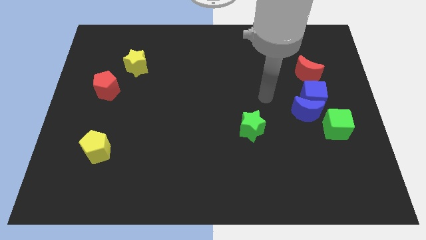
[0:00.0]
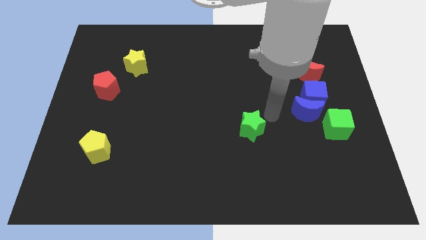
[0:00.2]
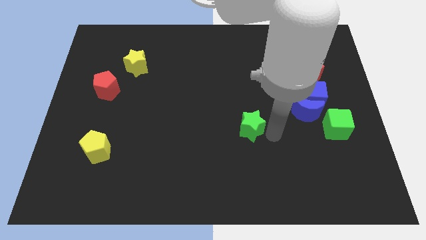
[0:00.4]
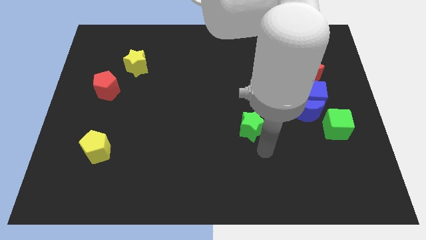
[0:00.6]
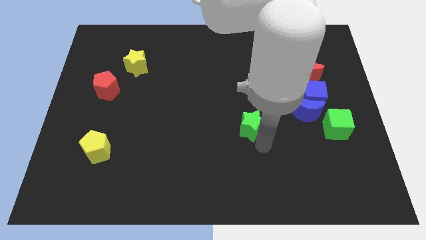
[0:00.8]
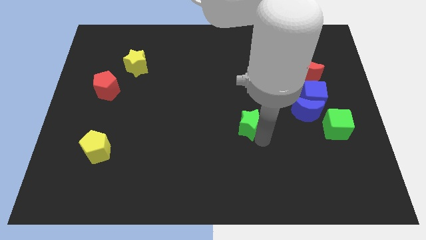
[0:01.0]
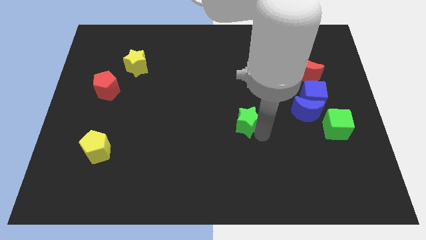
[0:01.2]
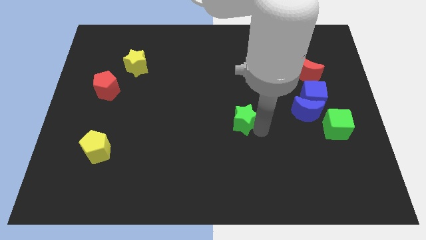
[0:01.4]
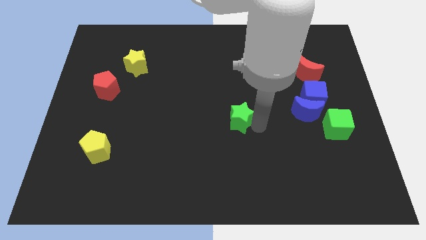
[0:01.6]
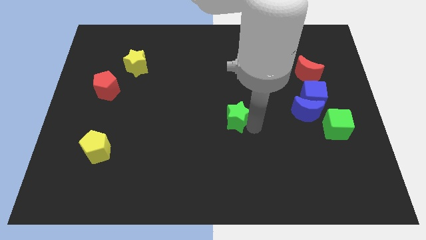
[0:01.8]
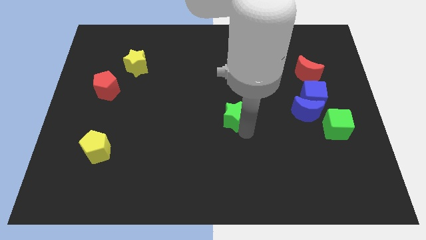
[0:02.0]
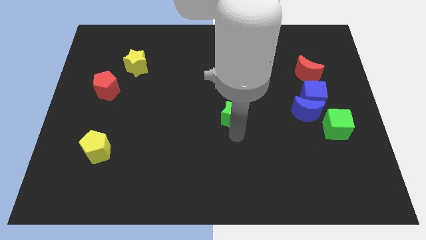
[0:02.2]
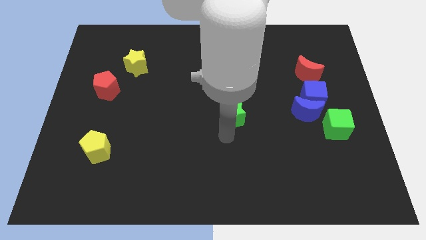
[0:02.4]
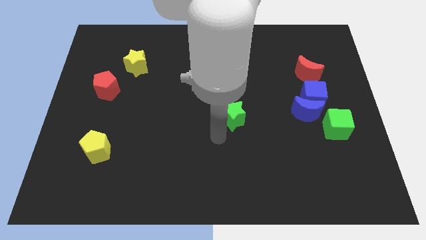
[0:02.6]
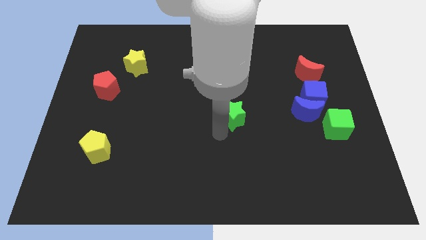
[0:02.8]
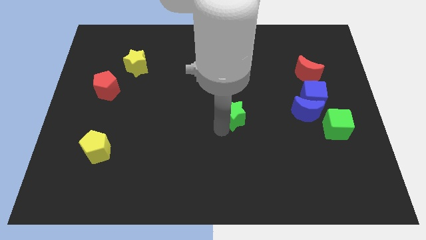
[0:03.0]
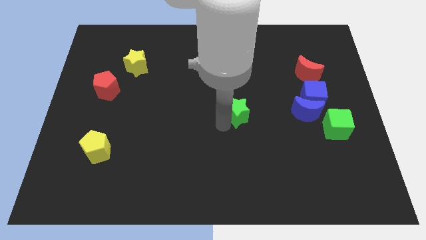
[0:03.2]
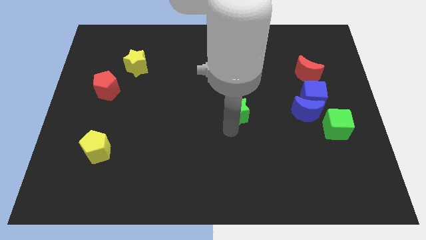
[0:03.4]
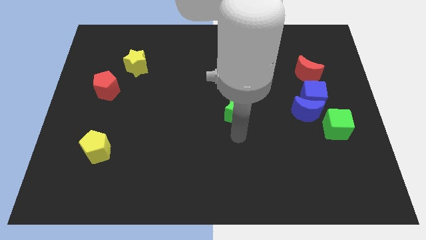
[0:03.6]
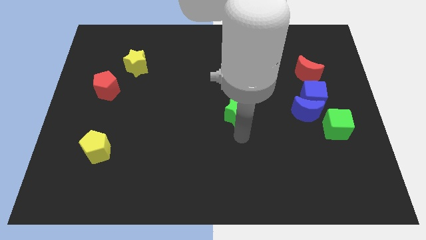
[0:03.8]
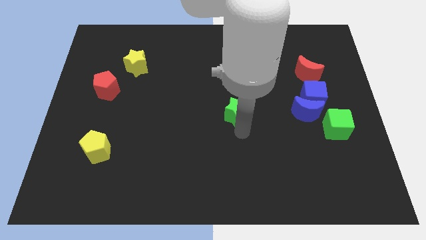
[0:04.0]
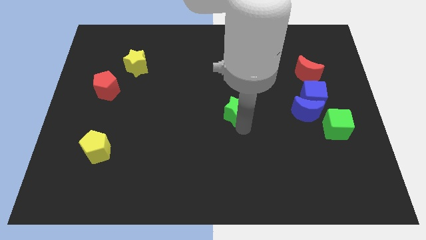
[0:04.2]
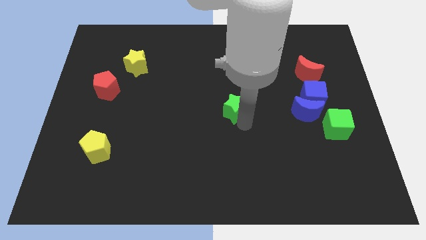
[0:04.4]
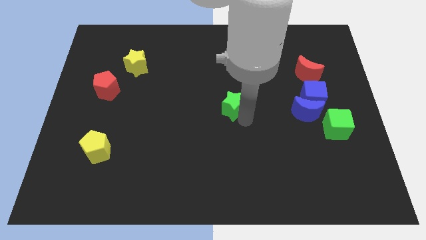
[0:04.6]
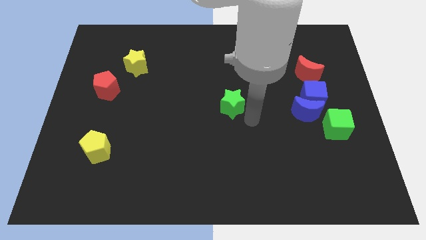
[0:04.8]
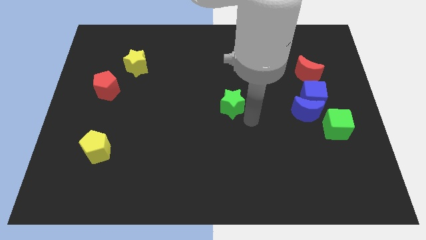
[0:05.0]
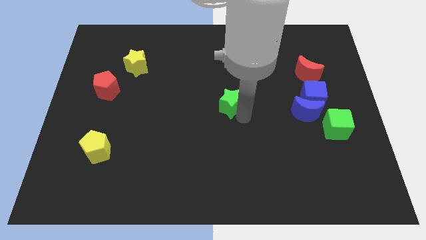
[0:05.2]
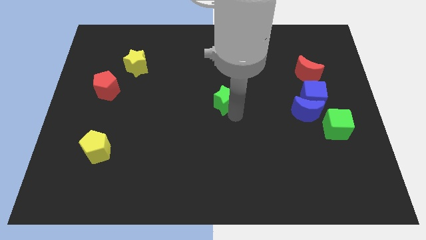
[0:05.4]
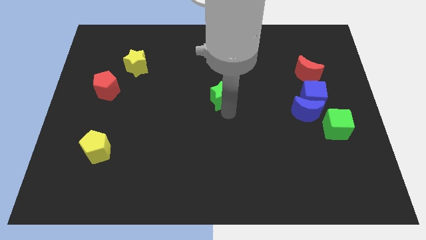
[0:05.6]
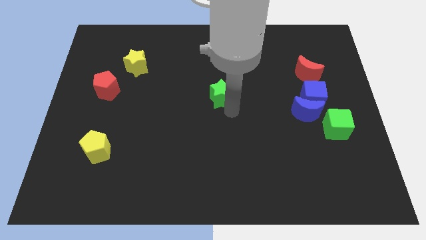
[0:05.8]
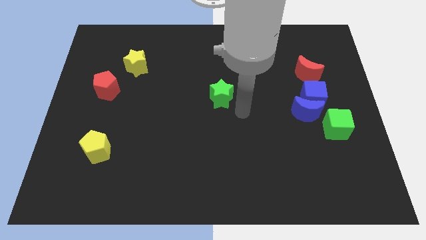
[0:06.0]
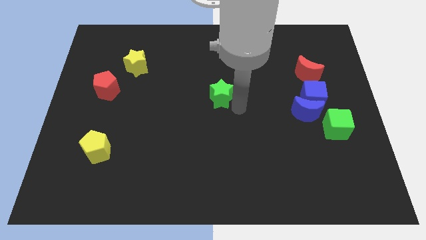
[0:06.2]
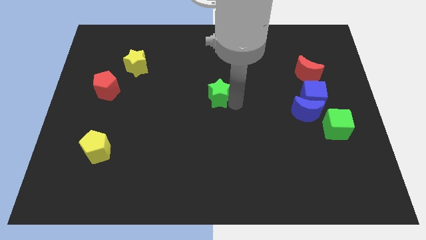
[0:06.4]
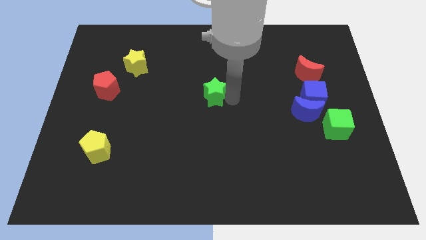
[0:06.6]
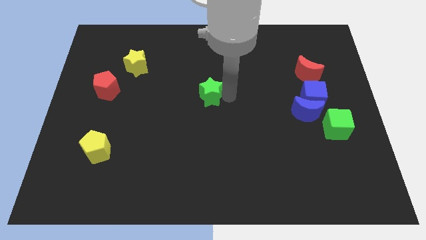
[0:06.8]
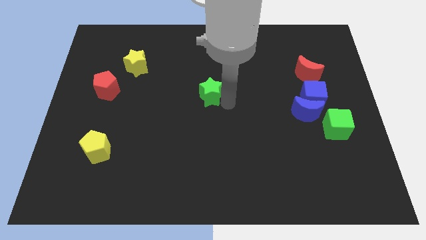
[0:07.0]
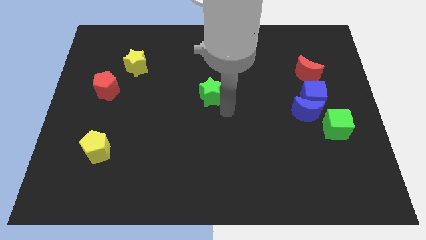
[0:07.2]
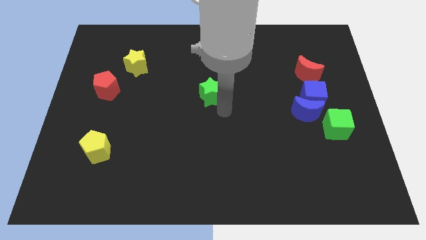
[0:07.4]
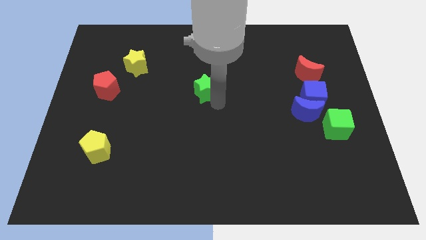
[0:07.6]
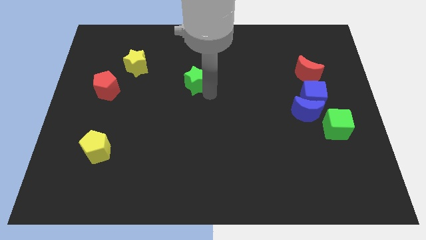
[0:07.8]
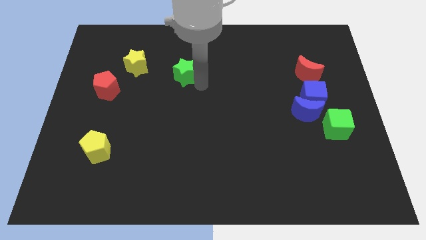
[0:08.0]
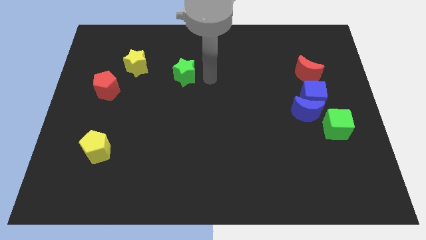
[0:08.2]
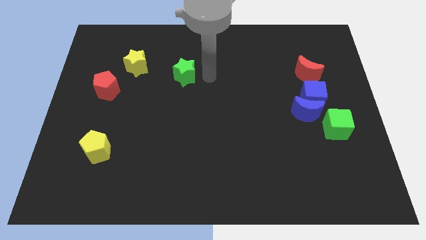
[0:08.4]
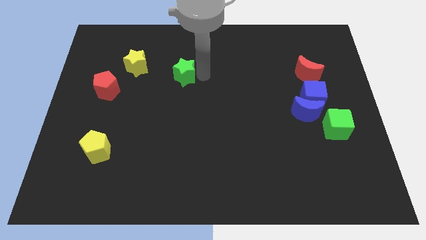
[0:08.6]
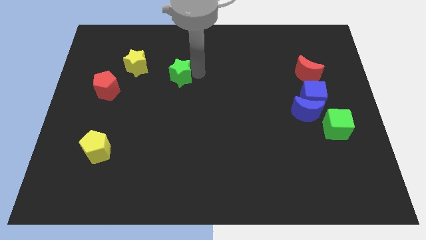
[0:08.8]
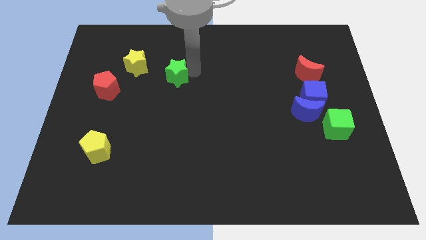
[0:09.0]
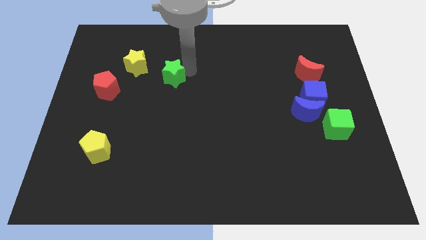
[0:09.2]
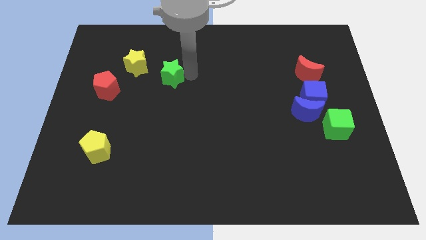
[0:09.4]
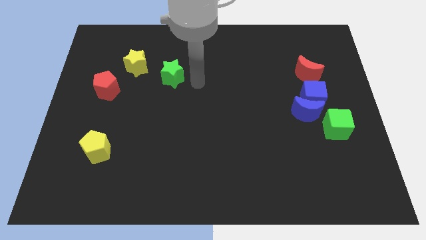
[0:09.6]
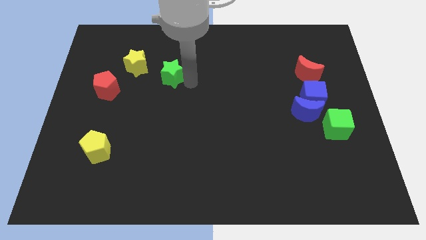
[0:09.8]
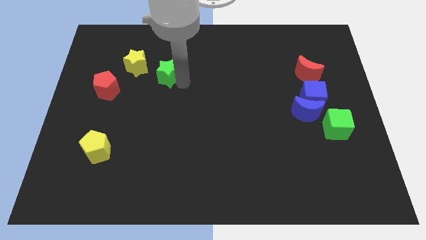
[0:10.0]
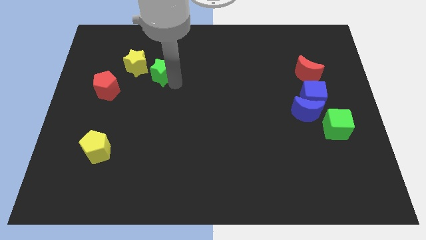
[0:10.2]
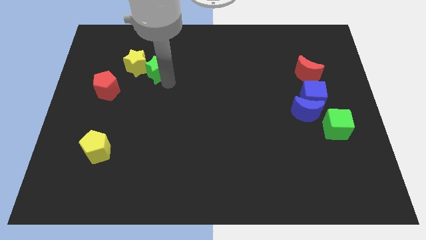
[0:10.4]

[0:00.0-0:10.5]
put the green star close to the yellow star

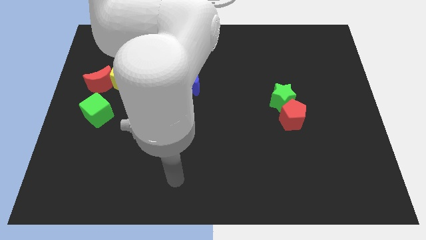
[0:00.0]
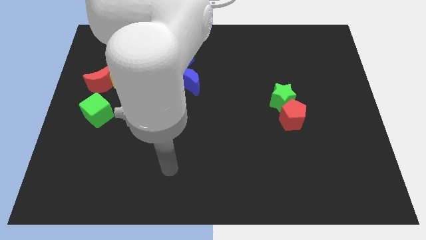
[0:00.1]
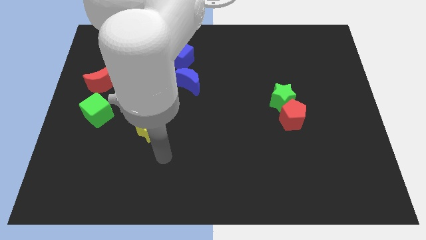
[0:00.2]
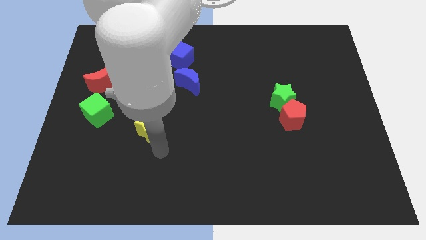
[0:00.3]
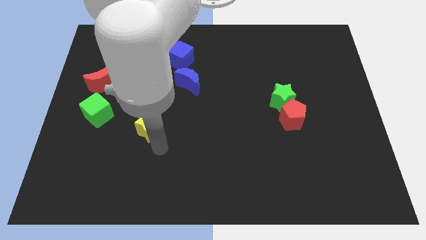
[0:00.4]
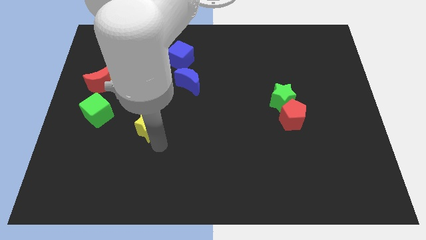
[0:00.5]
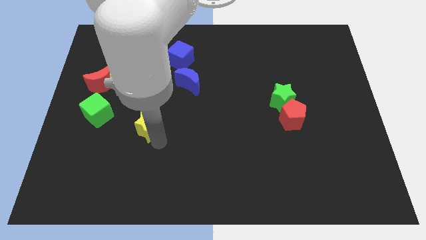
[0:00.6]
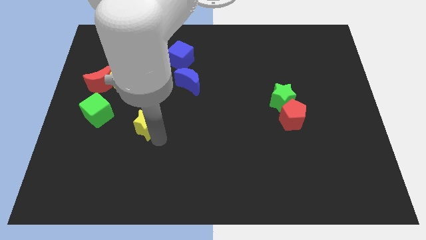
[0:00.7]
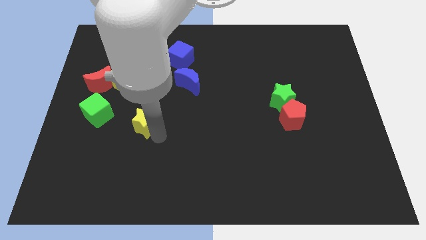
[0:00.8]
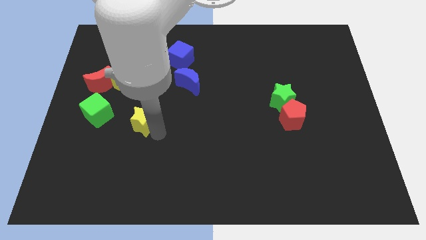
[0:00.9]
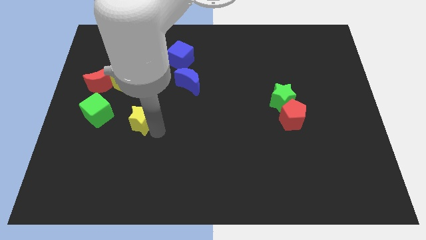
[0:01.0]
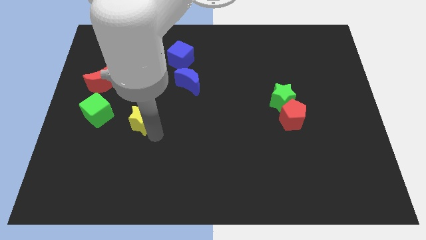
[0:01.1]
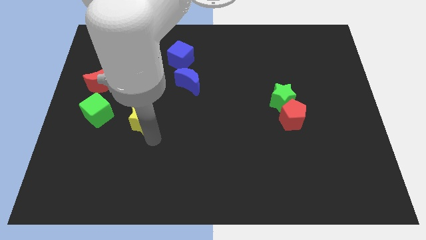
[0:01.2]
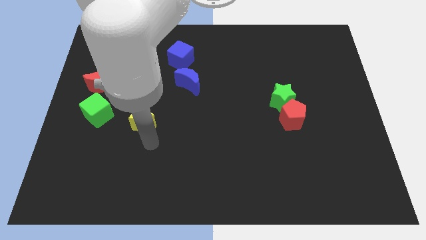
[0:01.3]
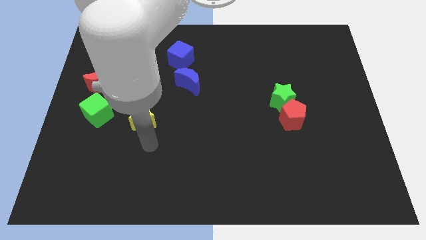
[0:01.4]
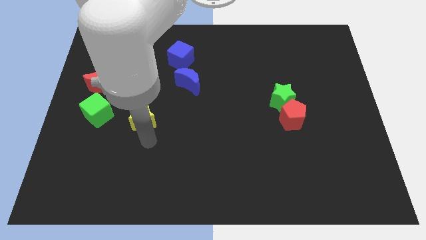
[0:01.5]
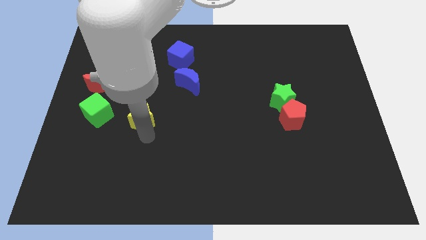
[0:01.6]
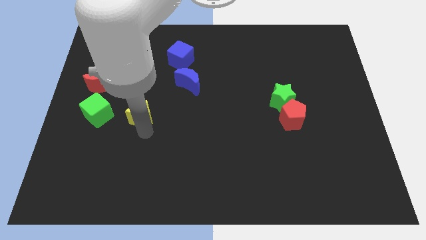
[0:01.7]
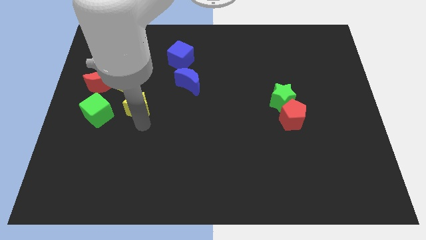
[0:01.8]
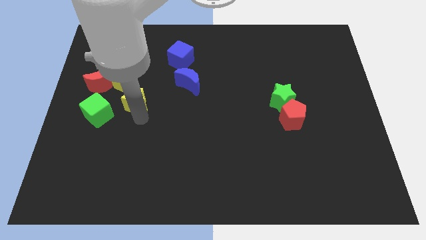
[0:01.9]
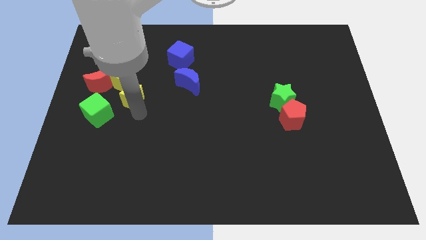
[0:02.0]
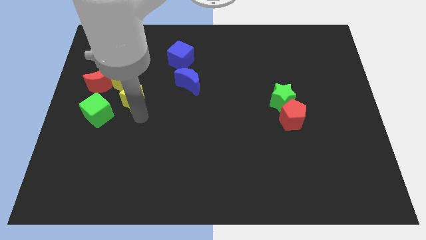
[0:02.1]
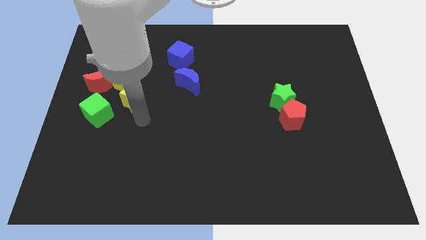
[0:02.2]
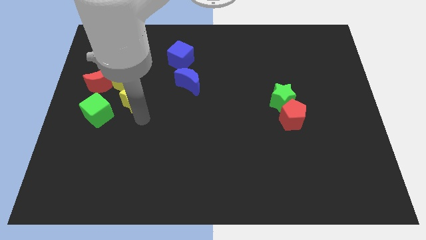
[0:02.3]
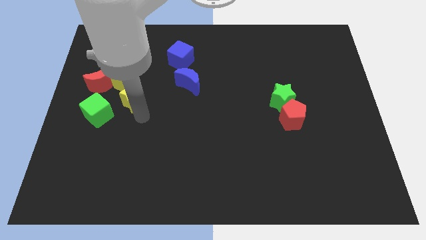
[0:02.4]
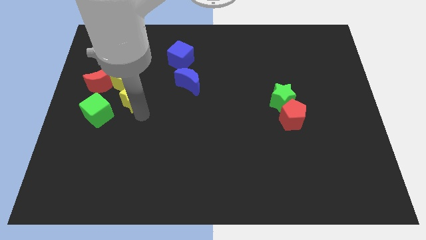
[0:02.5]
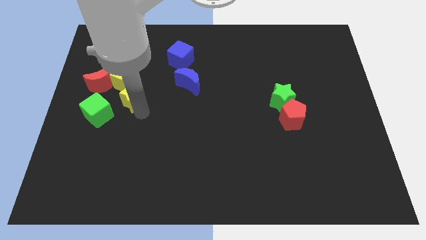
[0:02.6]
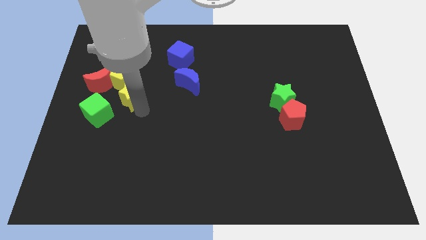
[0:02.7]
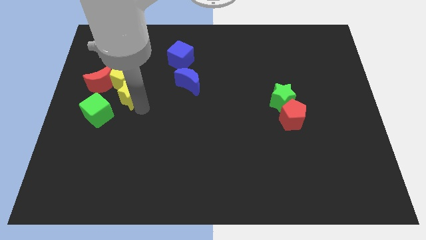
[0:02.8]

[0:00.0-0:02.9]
slide the yellow star towards the yellow pentagon
